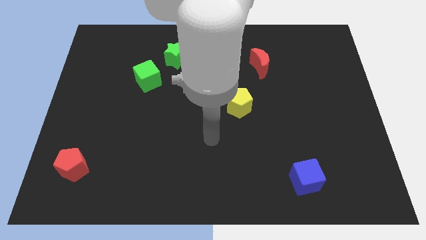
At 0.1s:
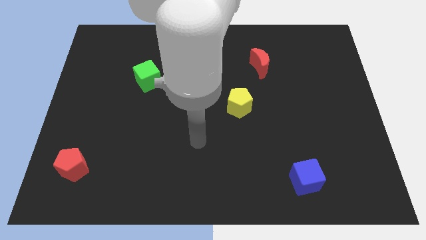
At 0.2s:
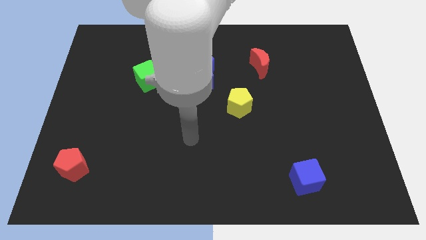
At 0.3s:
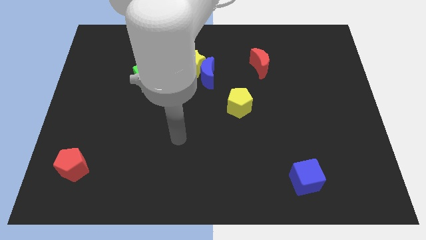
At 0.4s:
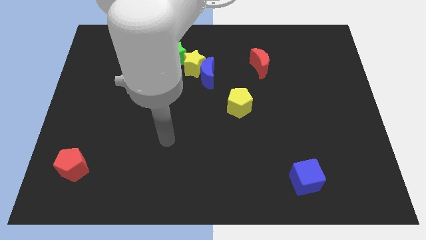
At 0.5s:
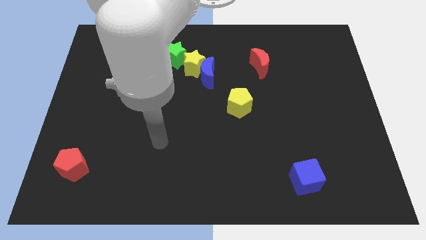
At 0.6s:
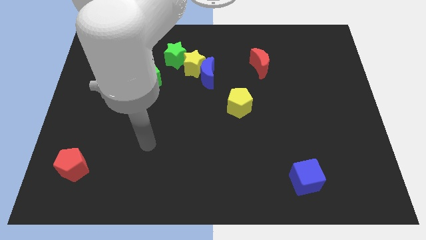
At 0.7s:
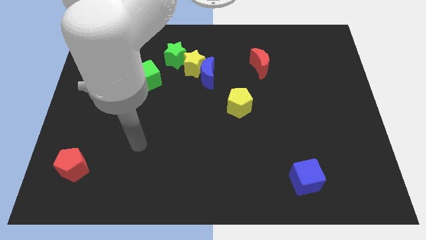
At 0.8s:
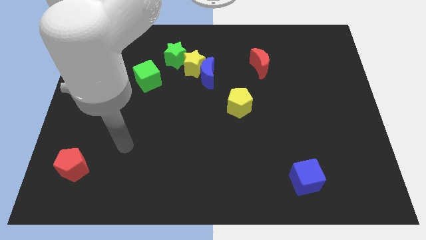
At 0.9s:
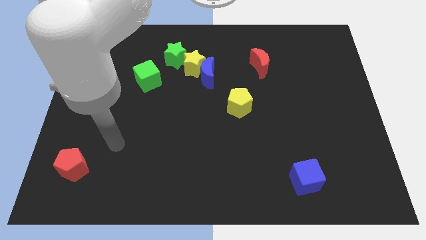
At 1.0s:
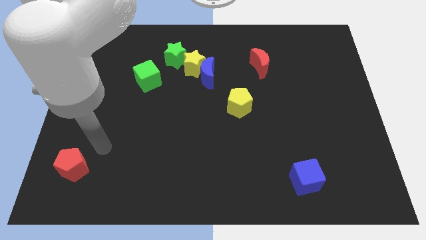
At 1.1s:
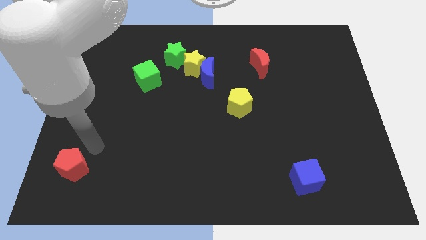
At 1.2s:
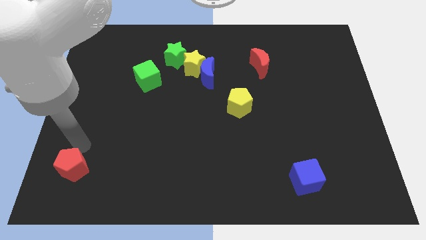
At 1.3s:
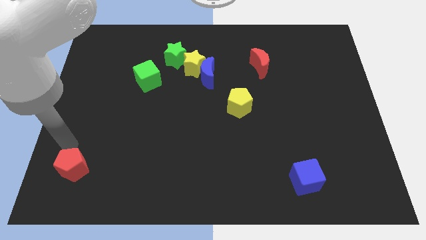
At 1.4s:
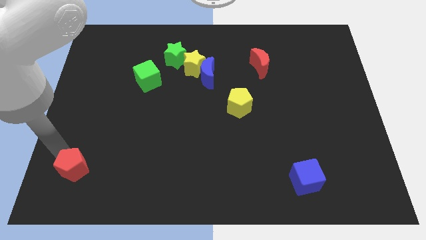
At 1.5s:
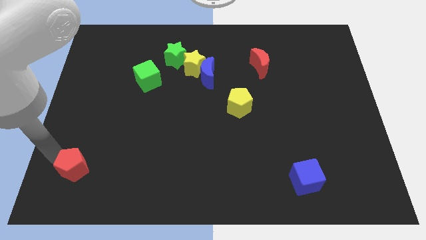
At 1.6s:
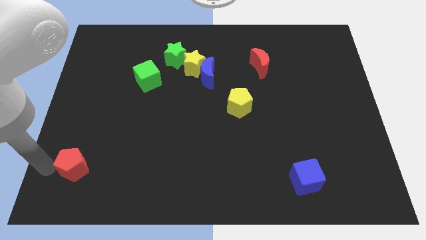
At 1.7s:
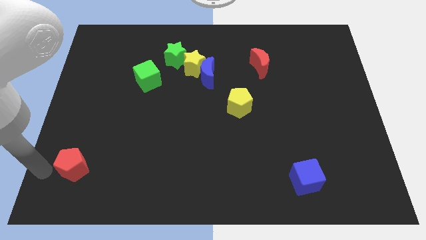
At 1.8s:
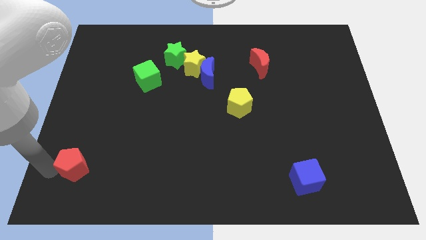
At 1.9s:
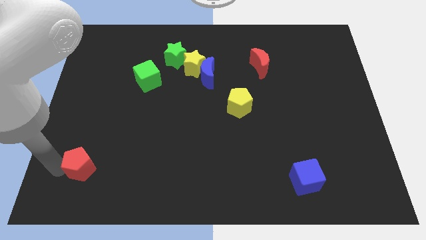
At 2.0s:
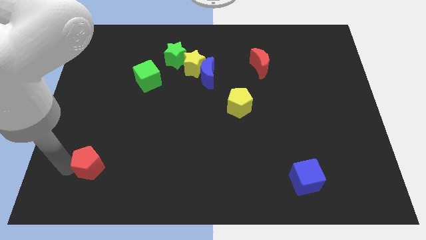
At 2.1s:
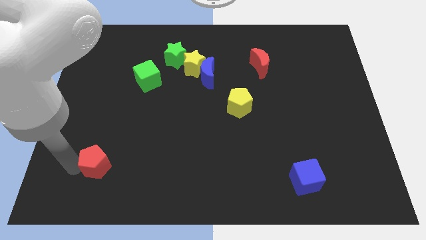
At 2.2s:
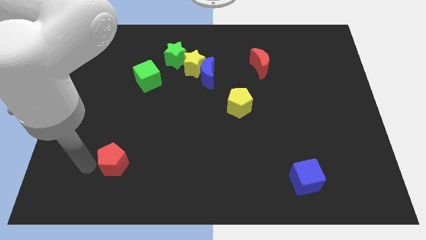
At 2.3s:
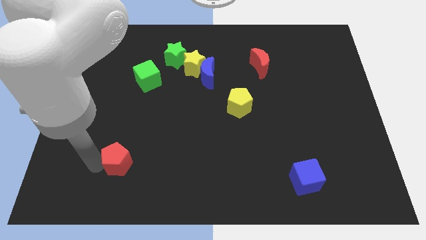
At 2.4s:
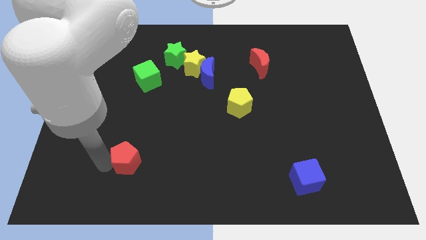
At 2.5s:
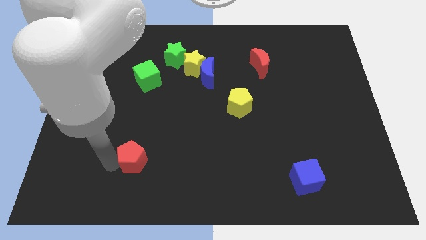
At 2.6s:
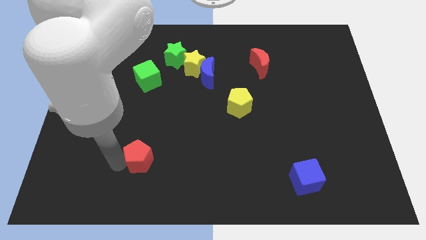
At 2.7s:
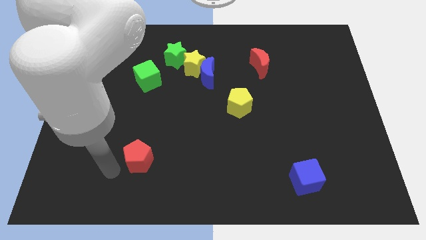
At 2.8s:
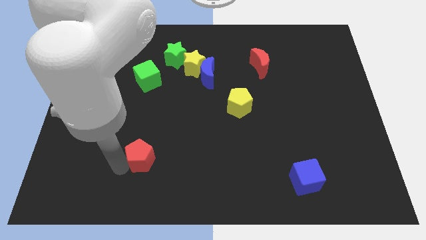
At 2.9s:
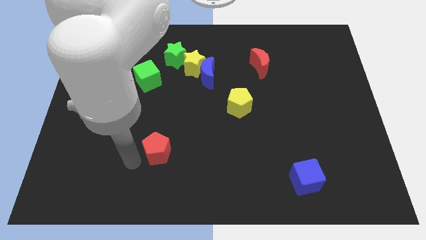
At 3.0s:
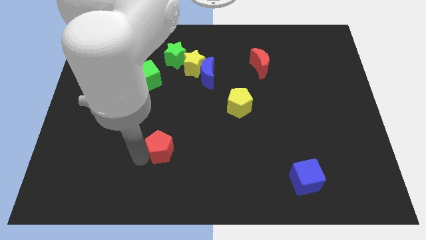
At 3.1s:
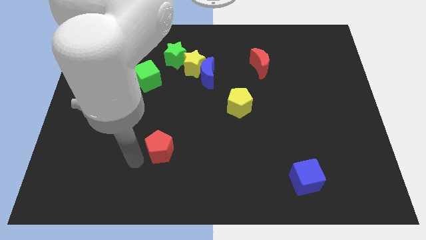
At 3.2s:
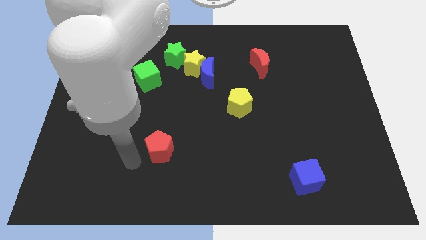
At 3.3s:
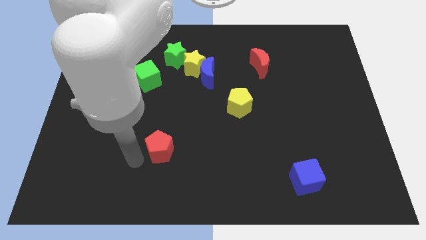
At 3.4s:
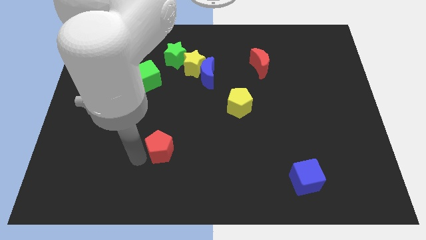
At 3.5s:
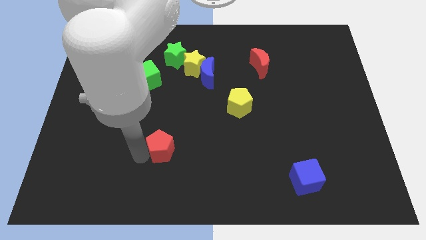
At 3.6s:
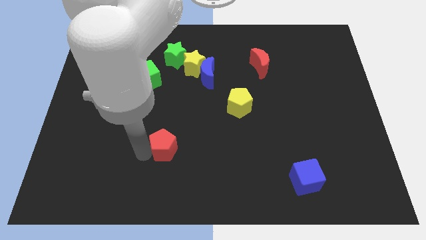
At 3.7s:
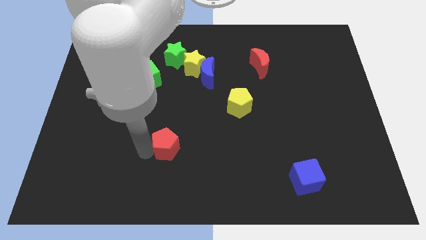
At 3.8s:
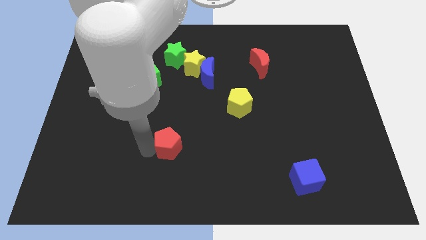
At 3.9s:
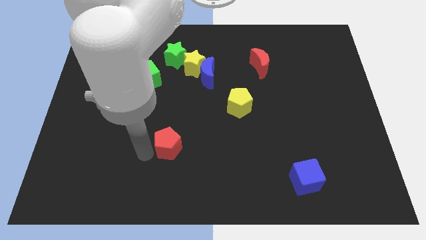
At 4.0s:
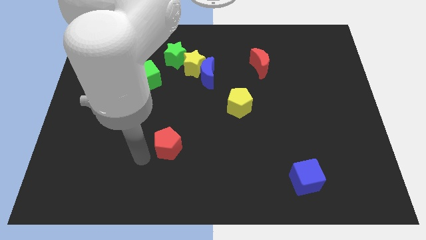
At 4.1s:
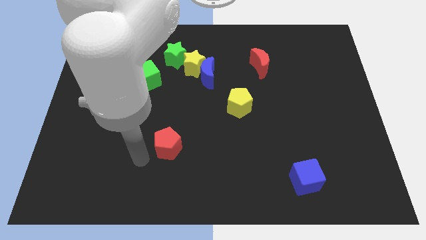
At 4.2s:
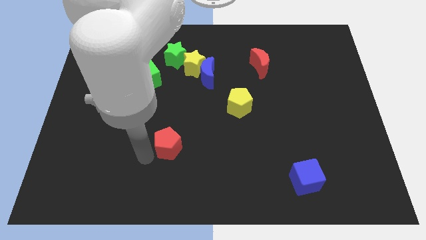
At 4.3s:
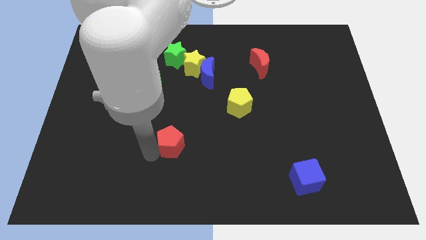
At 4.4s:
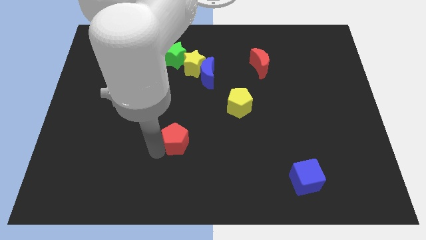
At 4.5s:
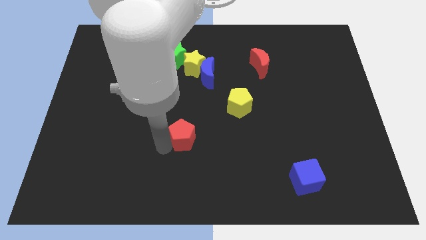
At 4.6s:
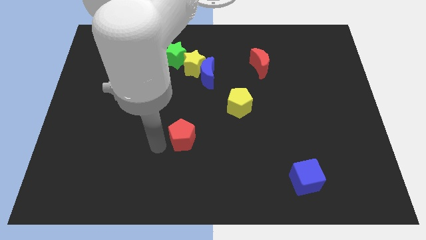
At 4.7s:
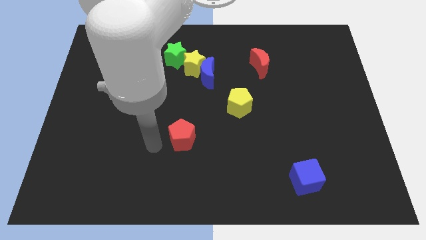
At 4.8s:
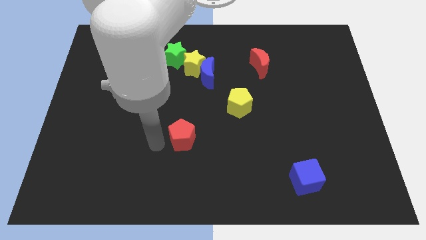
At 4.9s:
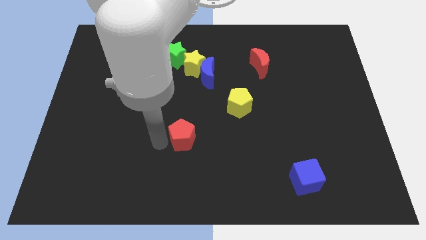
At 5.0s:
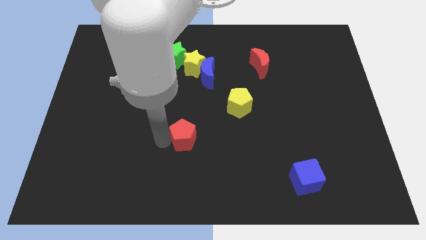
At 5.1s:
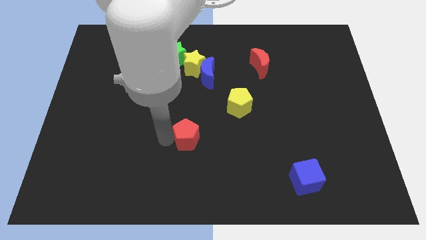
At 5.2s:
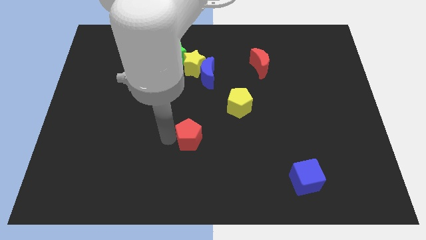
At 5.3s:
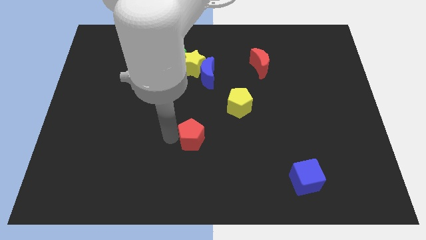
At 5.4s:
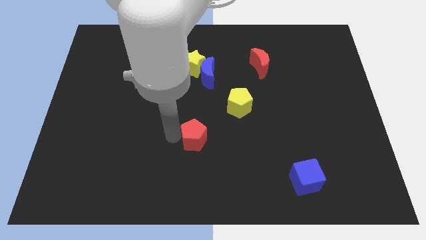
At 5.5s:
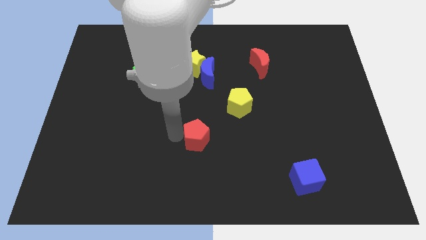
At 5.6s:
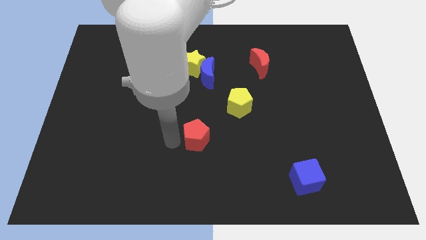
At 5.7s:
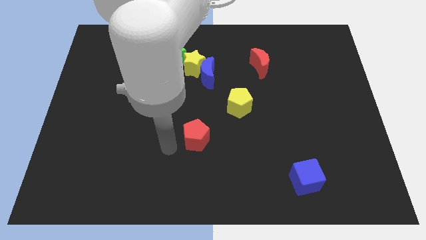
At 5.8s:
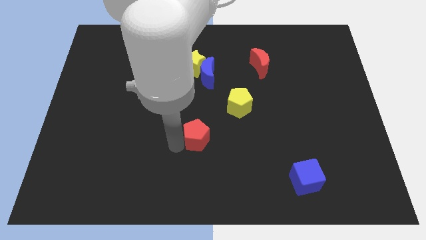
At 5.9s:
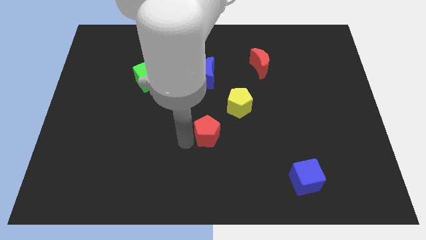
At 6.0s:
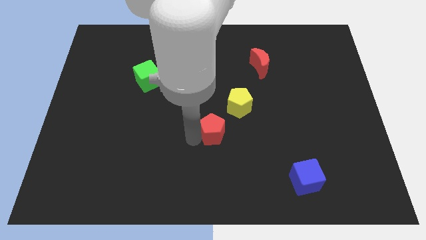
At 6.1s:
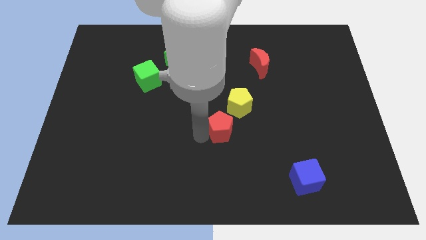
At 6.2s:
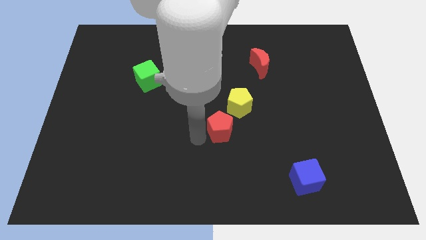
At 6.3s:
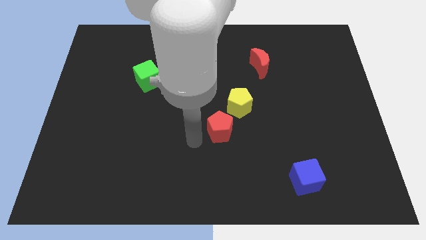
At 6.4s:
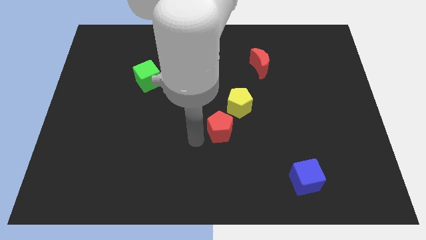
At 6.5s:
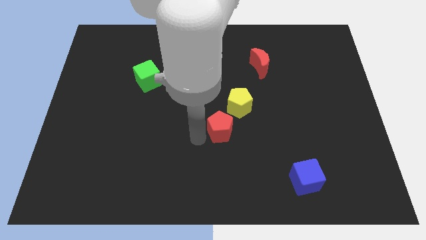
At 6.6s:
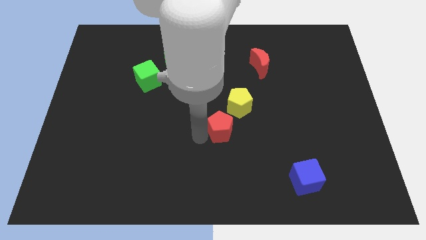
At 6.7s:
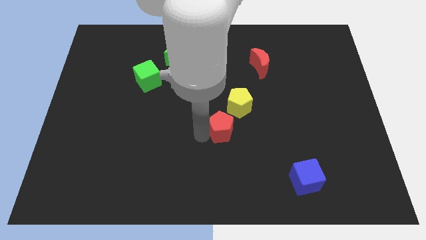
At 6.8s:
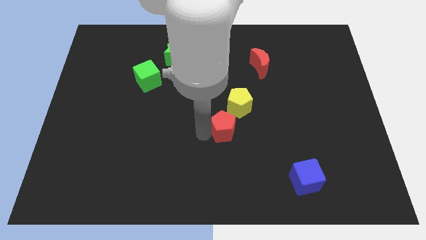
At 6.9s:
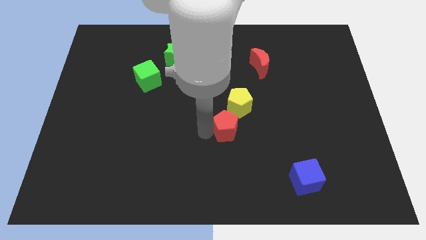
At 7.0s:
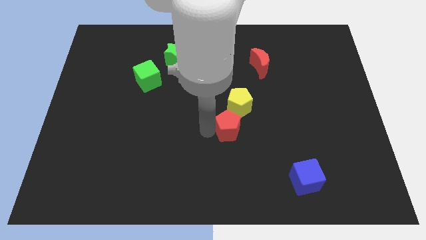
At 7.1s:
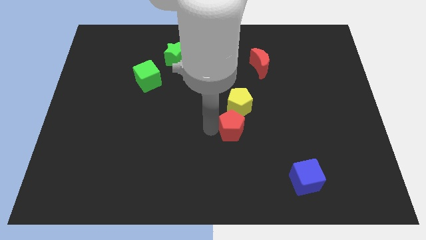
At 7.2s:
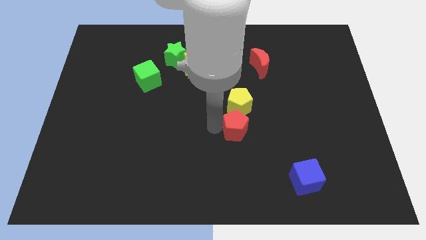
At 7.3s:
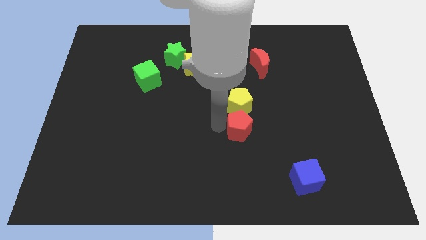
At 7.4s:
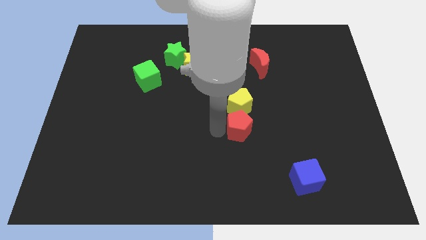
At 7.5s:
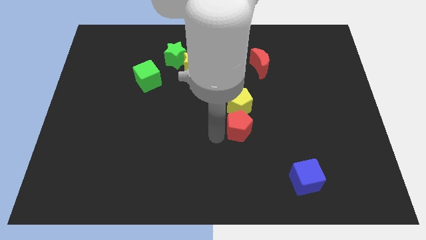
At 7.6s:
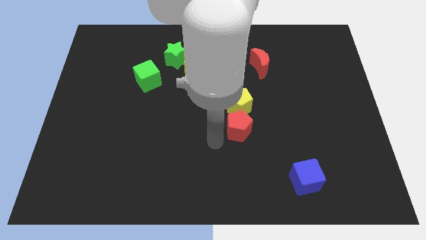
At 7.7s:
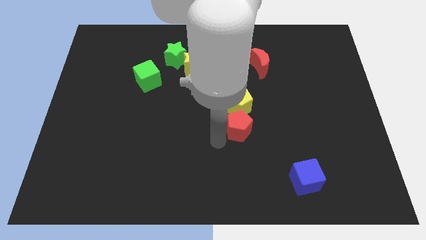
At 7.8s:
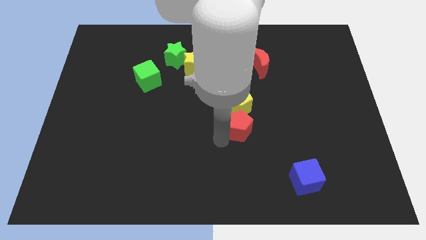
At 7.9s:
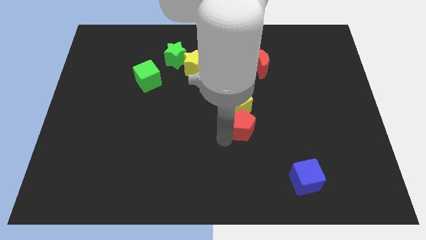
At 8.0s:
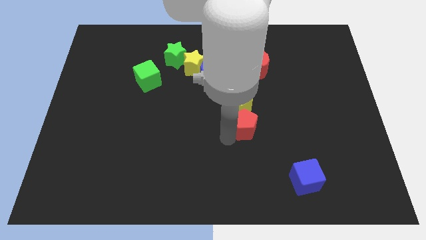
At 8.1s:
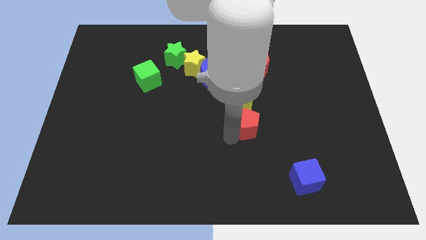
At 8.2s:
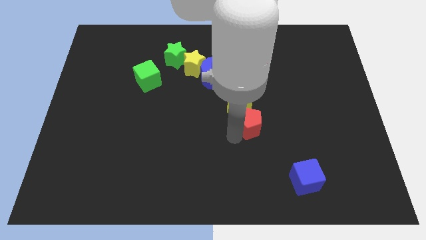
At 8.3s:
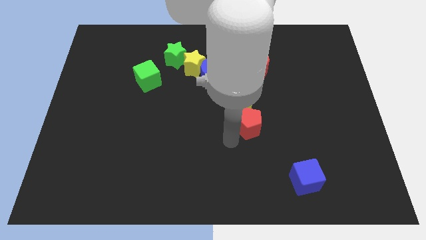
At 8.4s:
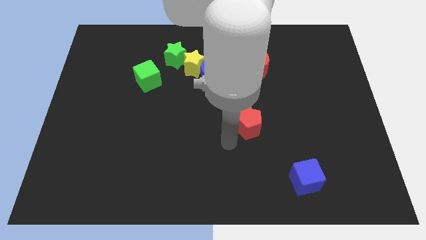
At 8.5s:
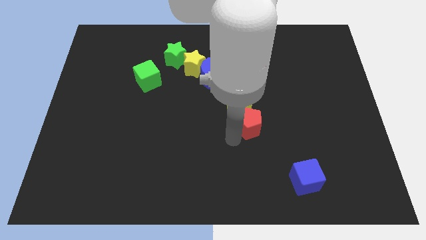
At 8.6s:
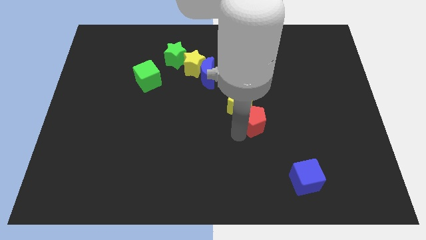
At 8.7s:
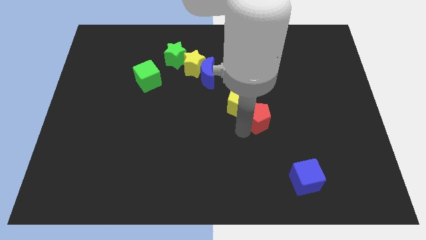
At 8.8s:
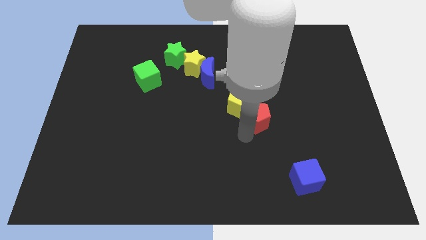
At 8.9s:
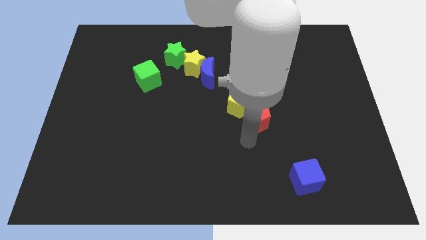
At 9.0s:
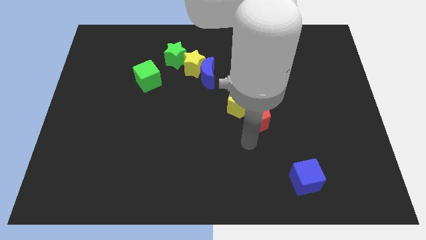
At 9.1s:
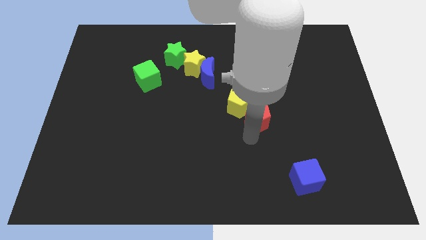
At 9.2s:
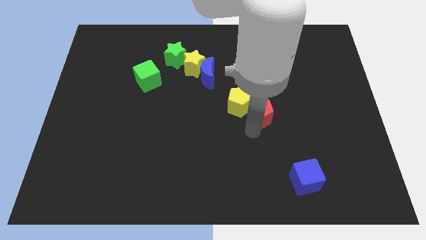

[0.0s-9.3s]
slide the red pentagon to the bottom side of the red moon
